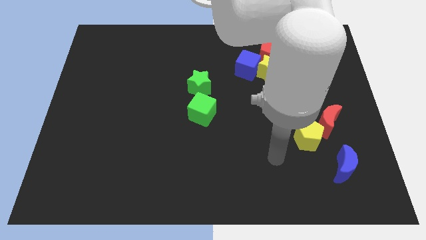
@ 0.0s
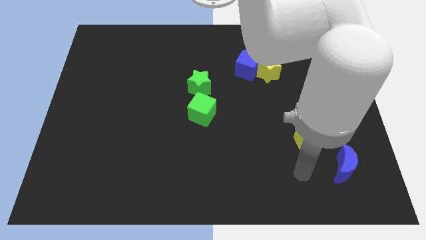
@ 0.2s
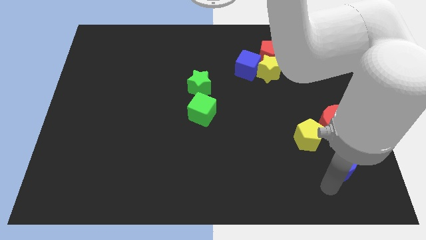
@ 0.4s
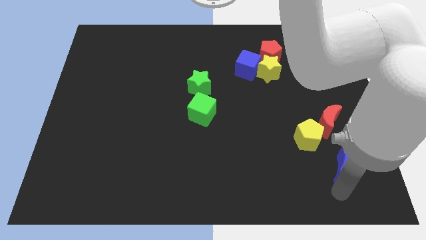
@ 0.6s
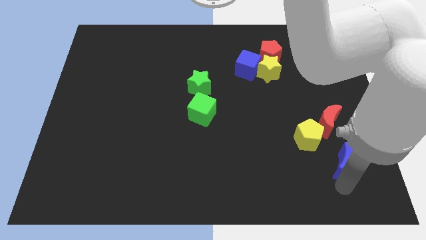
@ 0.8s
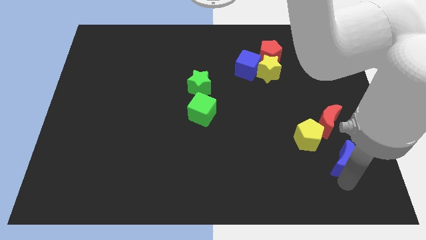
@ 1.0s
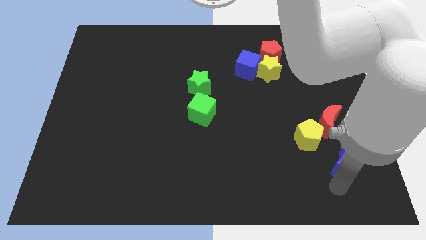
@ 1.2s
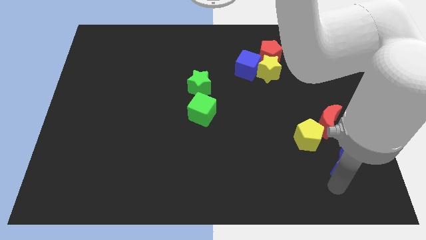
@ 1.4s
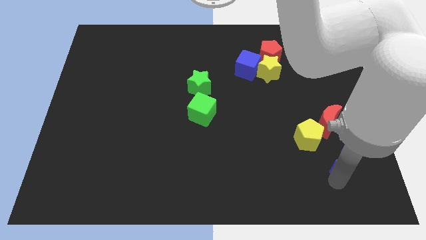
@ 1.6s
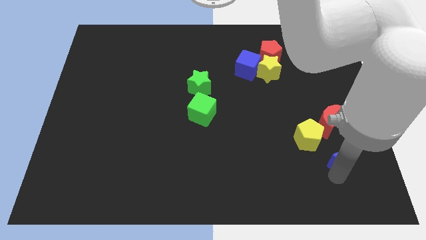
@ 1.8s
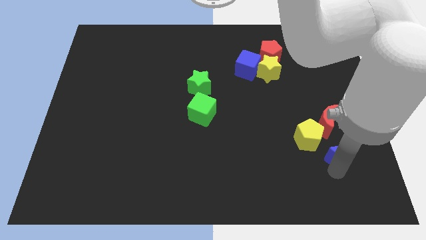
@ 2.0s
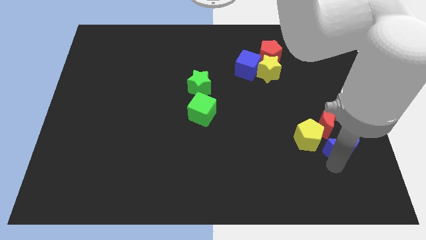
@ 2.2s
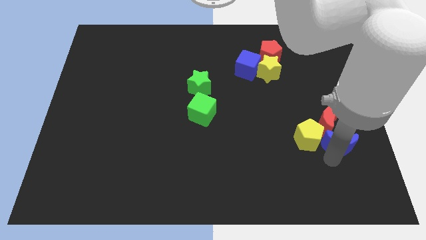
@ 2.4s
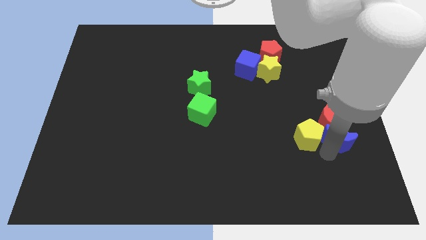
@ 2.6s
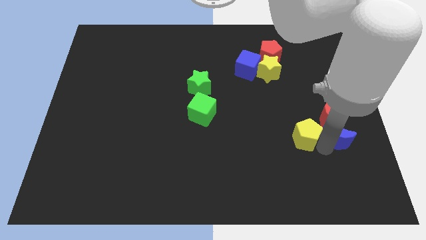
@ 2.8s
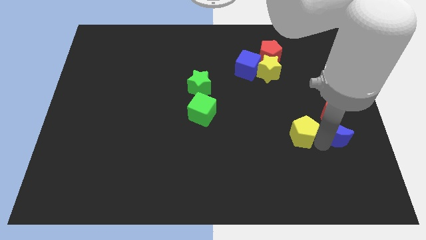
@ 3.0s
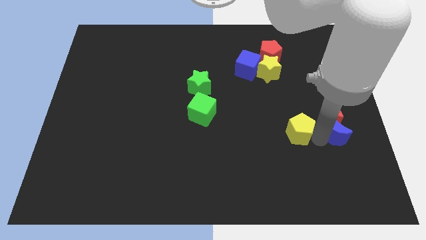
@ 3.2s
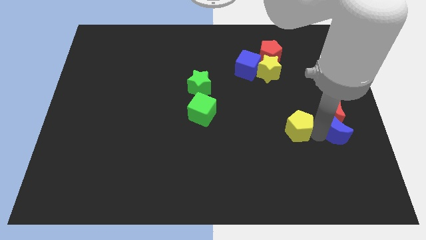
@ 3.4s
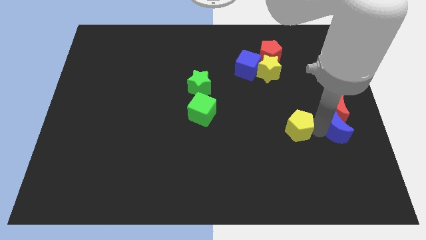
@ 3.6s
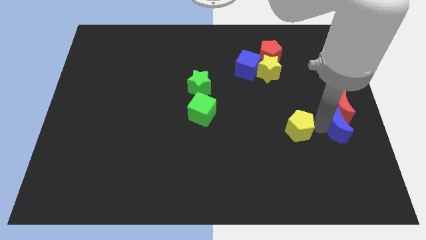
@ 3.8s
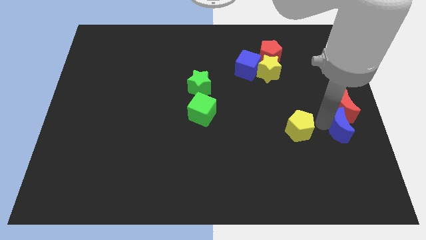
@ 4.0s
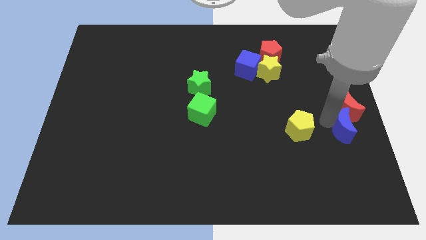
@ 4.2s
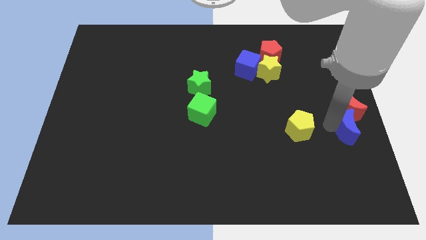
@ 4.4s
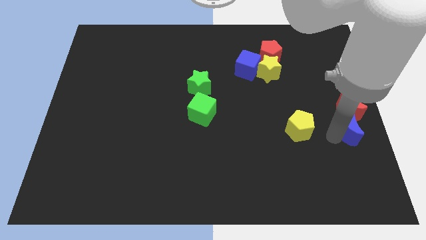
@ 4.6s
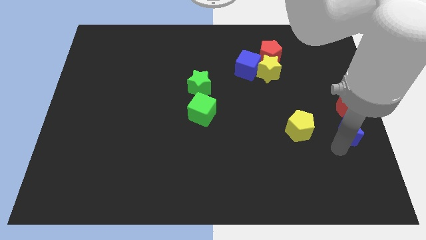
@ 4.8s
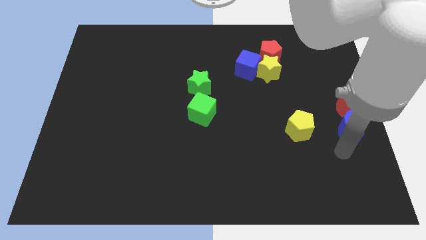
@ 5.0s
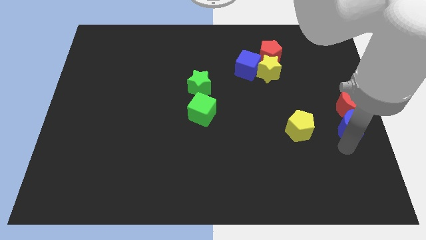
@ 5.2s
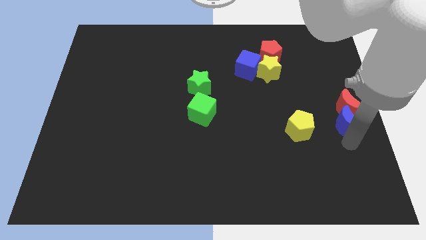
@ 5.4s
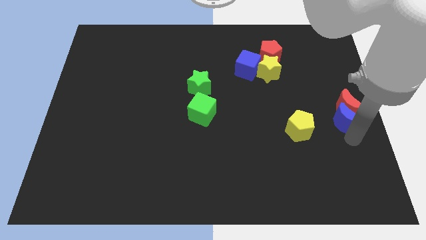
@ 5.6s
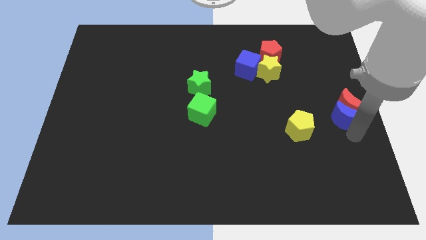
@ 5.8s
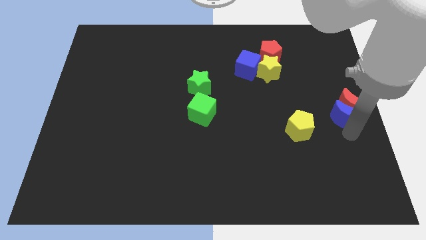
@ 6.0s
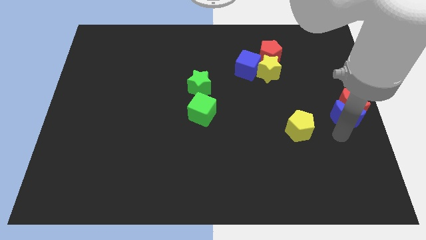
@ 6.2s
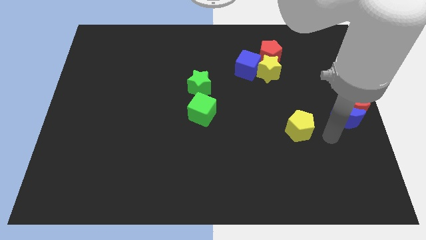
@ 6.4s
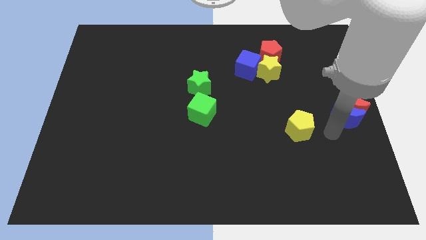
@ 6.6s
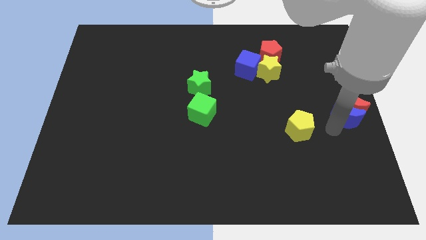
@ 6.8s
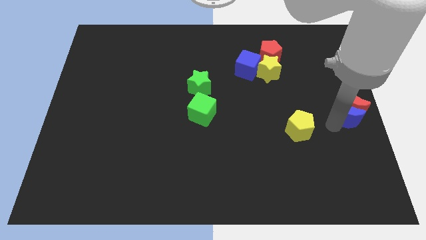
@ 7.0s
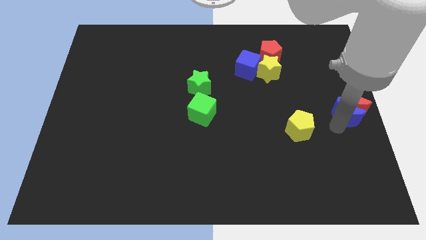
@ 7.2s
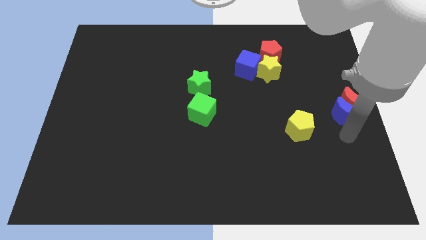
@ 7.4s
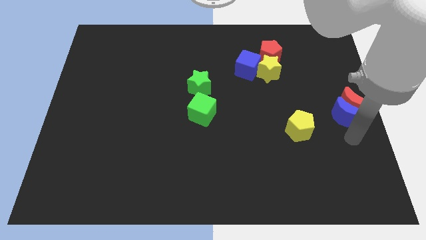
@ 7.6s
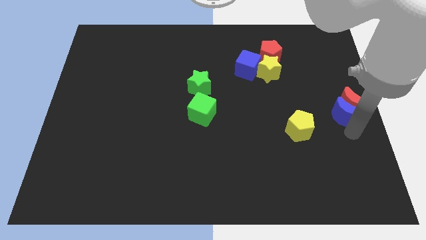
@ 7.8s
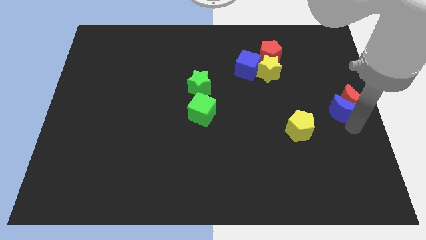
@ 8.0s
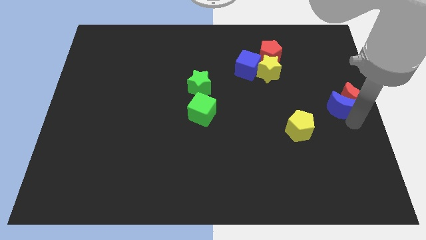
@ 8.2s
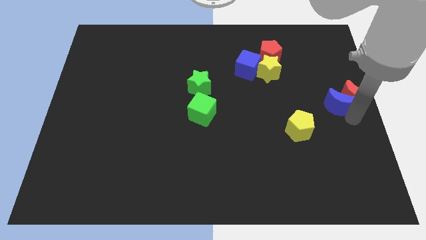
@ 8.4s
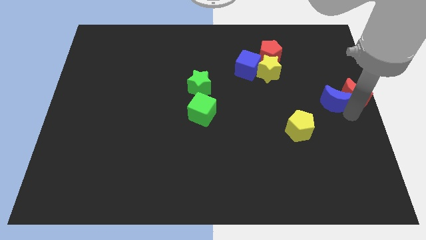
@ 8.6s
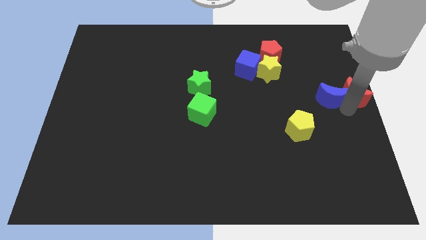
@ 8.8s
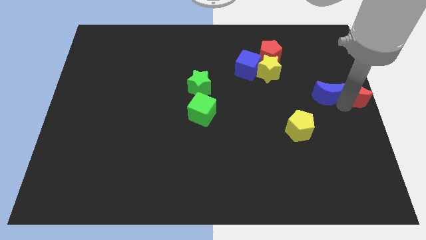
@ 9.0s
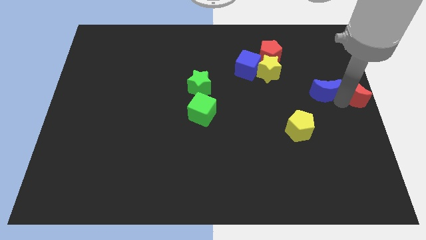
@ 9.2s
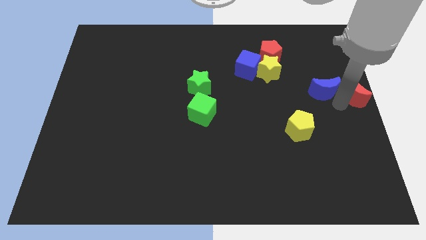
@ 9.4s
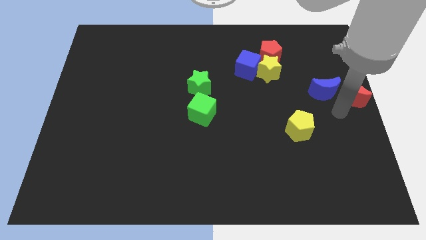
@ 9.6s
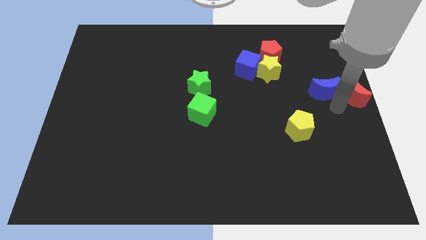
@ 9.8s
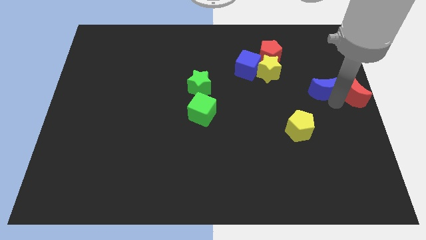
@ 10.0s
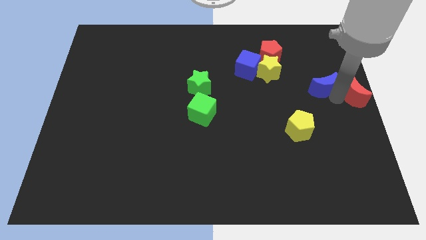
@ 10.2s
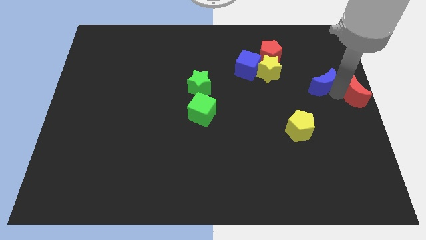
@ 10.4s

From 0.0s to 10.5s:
put the blue moon just right of the yellow star

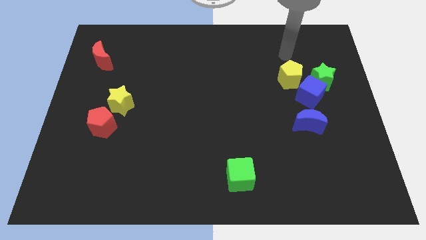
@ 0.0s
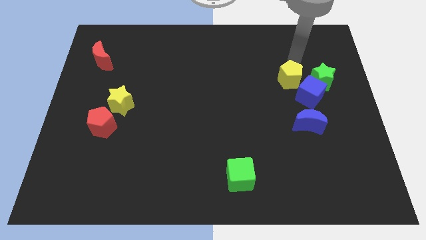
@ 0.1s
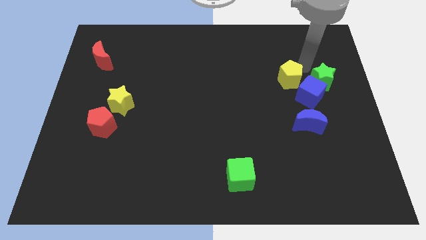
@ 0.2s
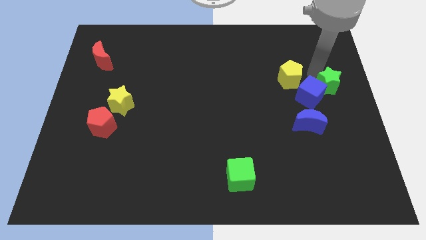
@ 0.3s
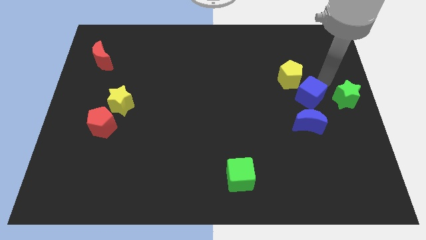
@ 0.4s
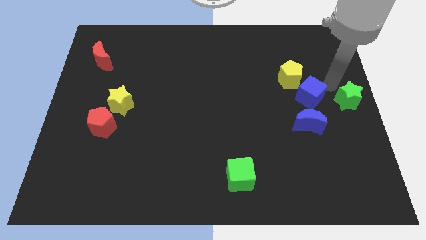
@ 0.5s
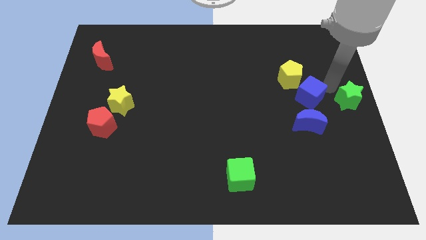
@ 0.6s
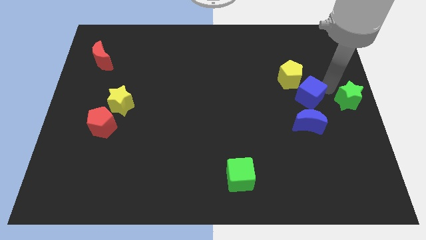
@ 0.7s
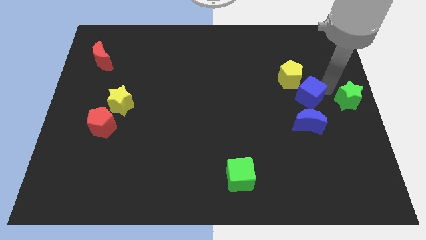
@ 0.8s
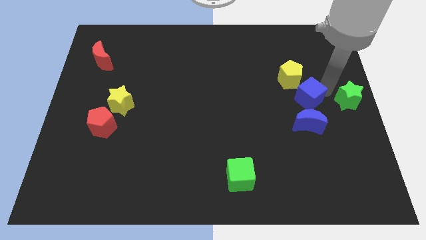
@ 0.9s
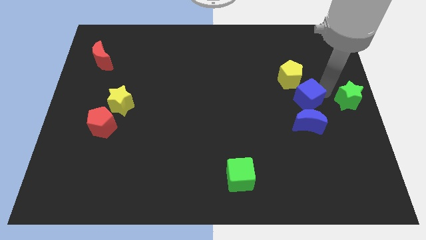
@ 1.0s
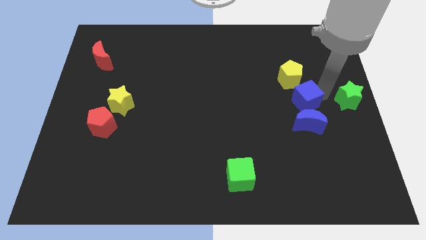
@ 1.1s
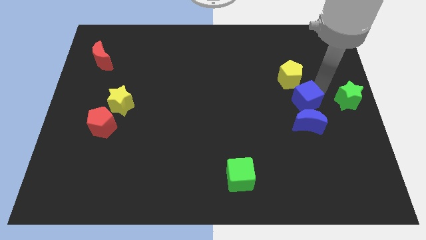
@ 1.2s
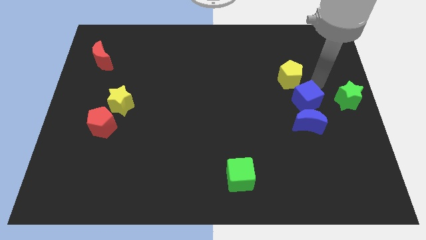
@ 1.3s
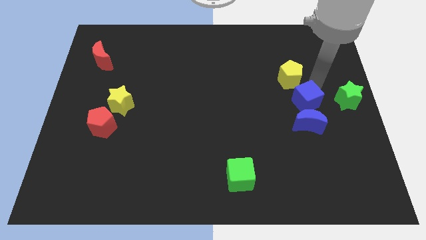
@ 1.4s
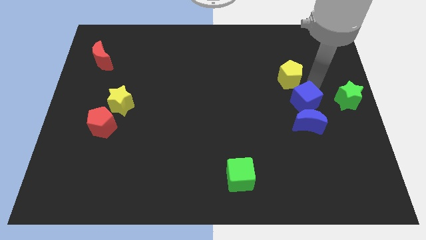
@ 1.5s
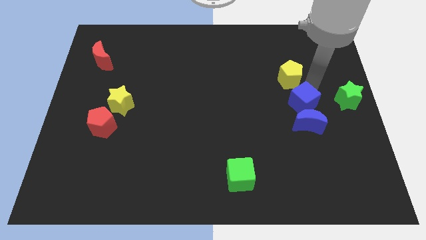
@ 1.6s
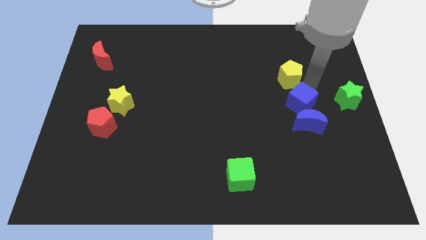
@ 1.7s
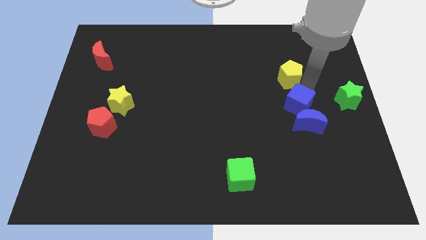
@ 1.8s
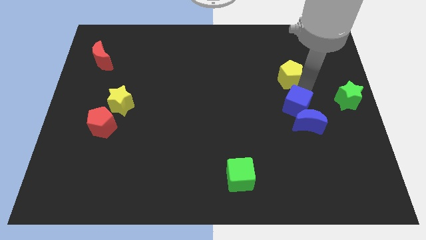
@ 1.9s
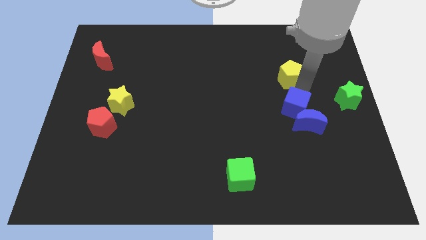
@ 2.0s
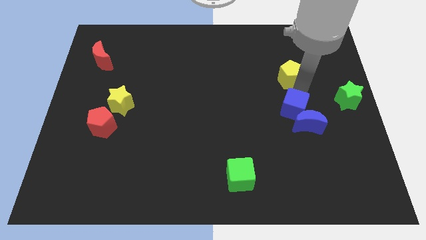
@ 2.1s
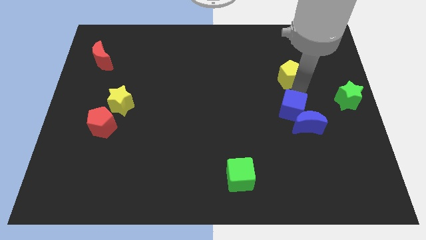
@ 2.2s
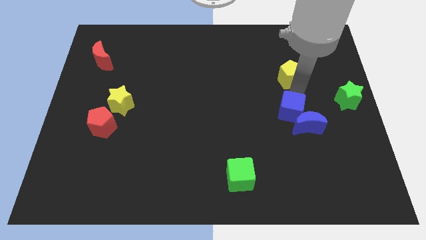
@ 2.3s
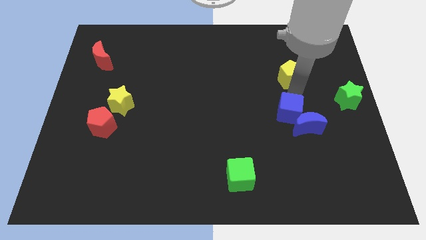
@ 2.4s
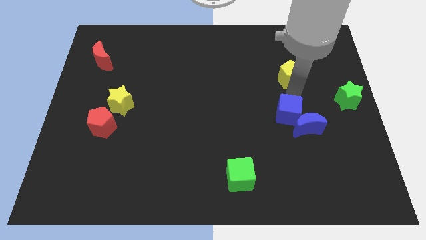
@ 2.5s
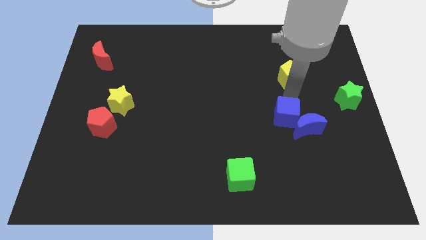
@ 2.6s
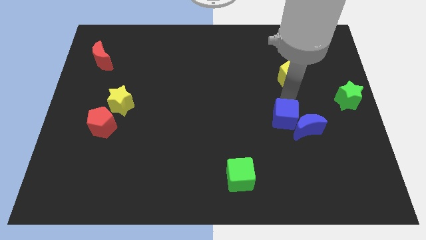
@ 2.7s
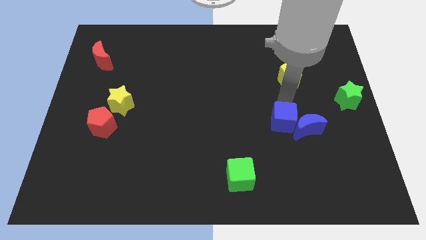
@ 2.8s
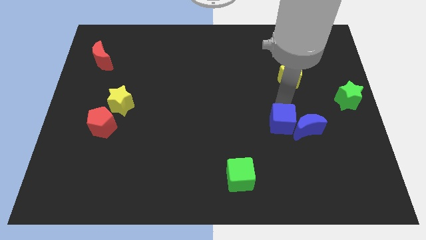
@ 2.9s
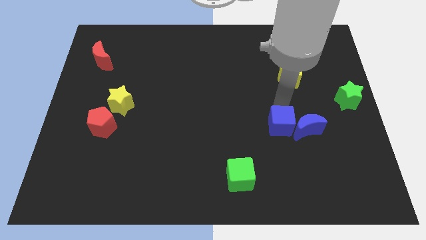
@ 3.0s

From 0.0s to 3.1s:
put the blue cube to the bottom left side of the blue moon
